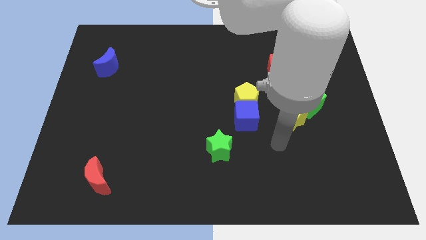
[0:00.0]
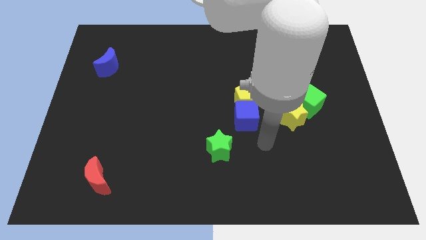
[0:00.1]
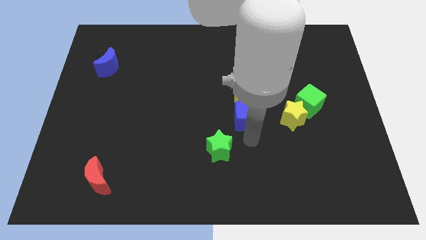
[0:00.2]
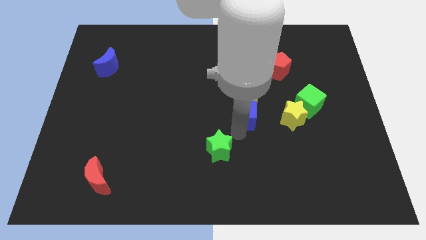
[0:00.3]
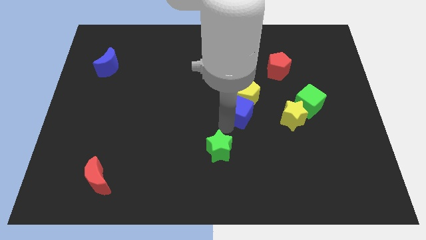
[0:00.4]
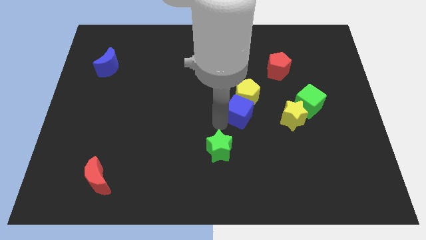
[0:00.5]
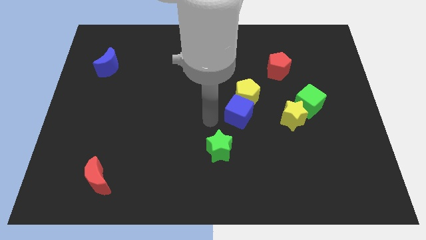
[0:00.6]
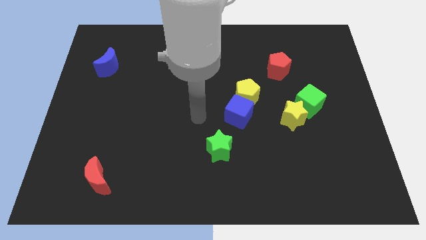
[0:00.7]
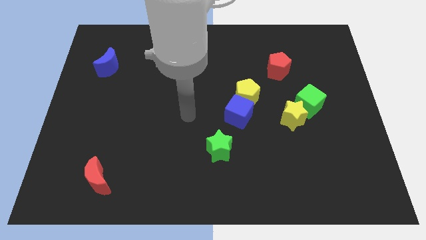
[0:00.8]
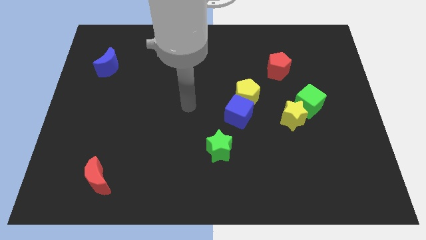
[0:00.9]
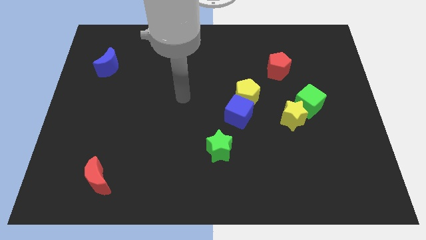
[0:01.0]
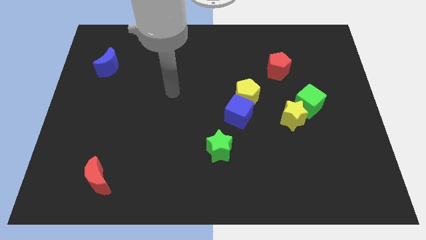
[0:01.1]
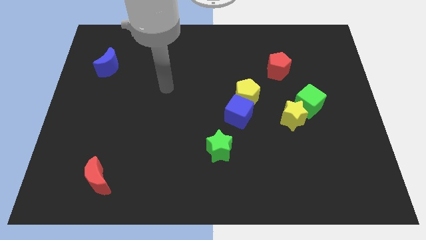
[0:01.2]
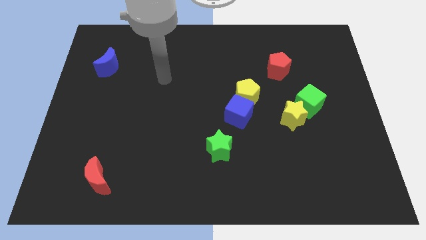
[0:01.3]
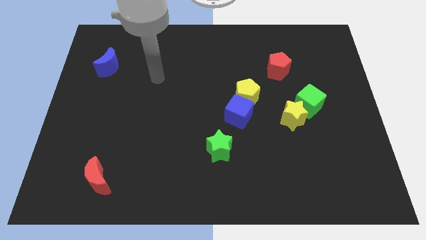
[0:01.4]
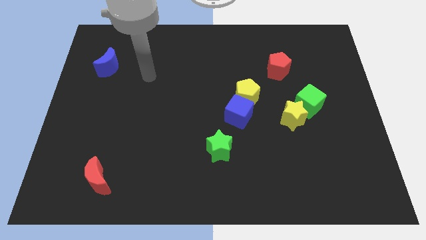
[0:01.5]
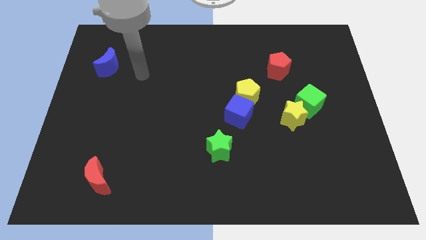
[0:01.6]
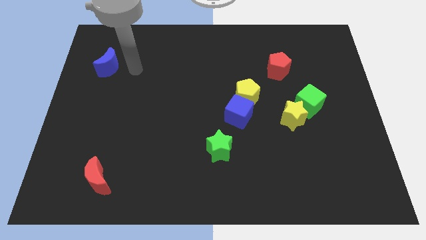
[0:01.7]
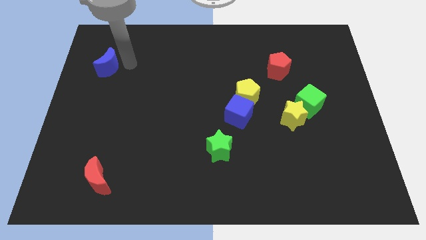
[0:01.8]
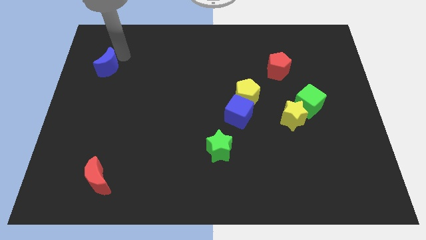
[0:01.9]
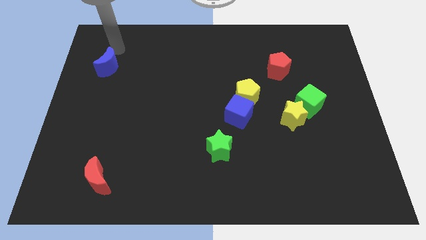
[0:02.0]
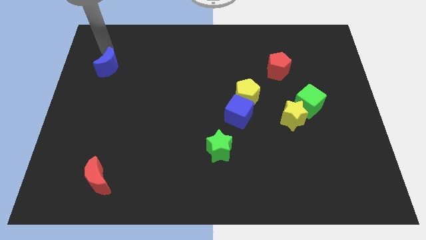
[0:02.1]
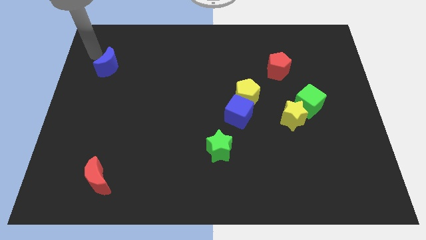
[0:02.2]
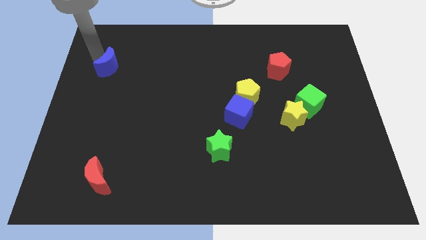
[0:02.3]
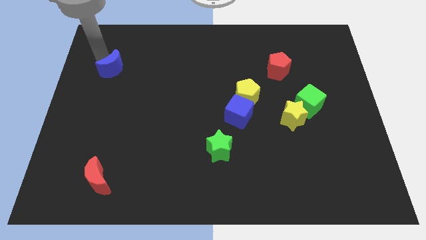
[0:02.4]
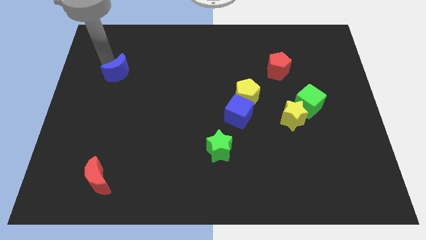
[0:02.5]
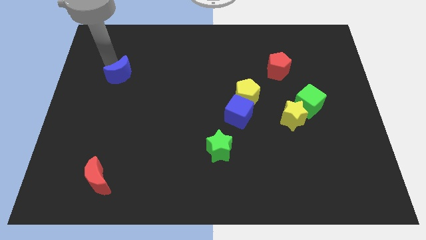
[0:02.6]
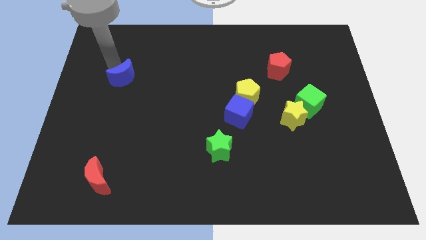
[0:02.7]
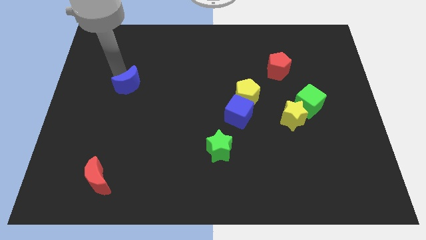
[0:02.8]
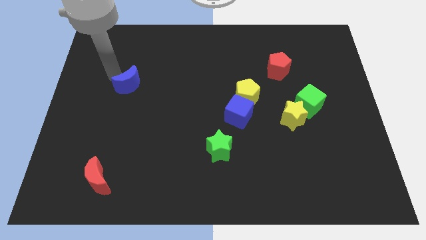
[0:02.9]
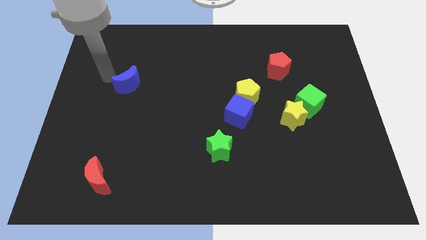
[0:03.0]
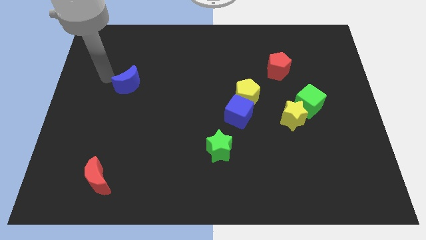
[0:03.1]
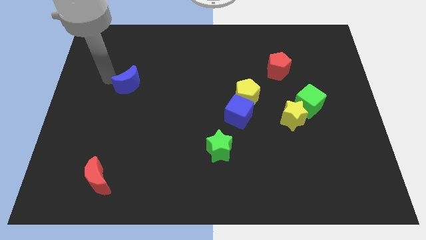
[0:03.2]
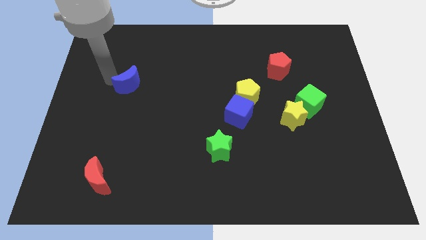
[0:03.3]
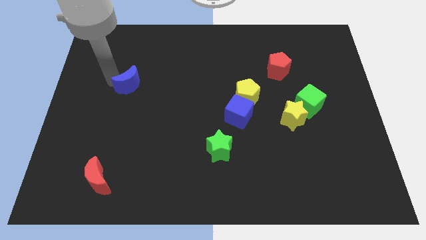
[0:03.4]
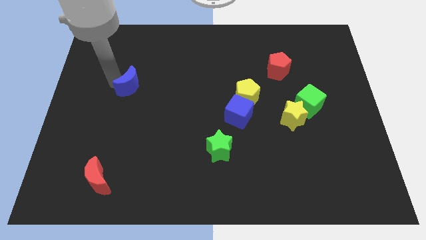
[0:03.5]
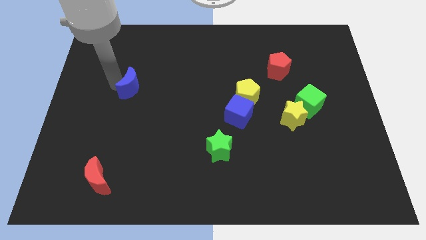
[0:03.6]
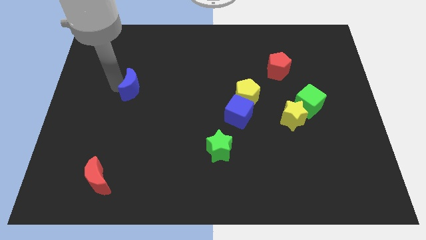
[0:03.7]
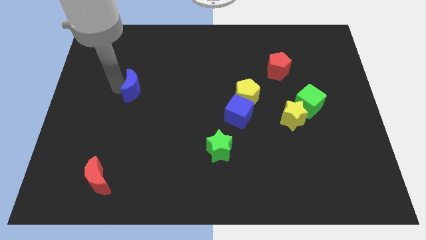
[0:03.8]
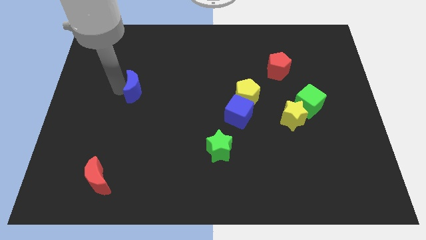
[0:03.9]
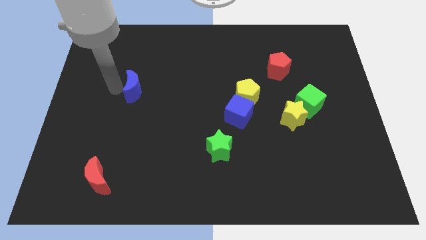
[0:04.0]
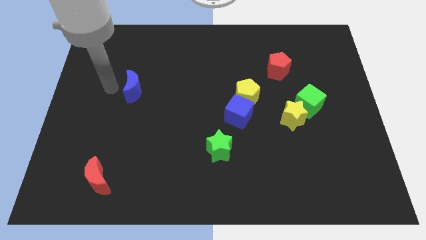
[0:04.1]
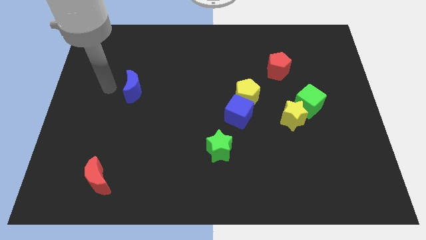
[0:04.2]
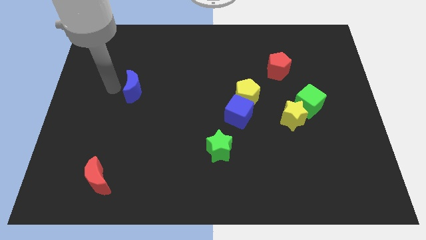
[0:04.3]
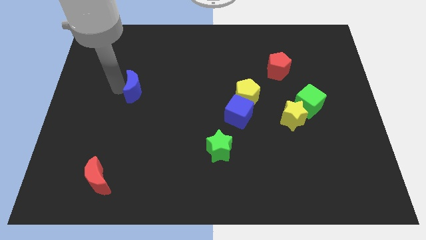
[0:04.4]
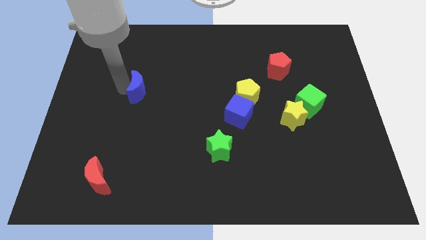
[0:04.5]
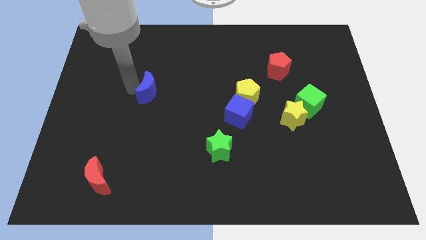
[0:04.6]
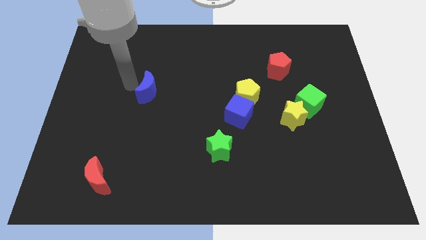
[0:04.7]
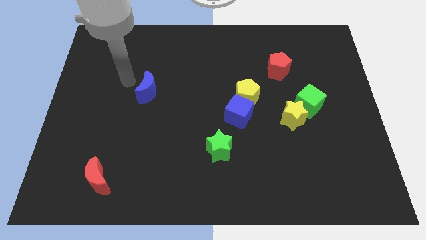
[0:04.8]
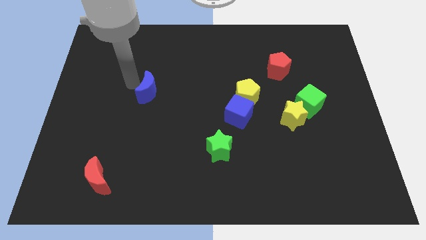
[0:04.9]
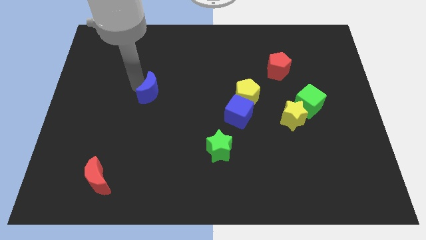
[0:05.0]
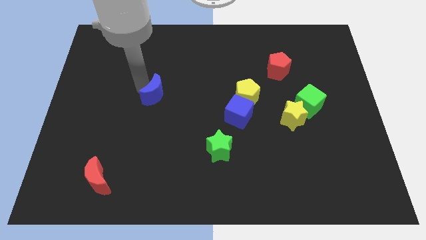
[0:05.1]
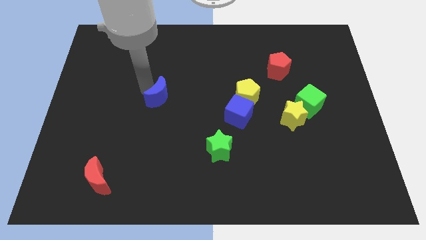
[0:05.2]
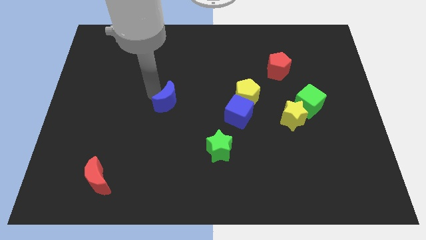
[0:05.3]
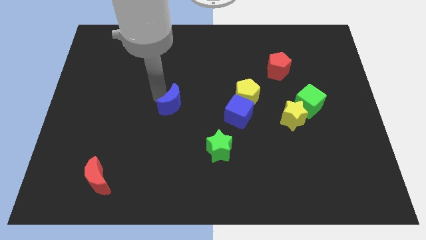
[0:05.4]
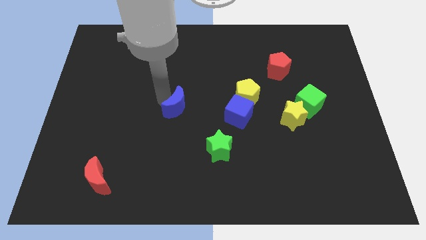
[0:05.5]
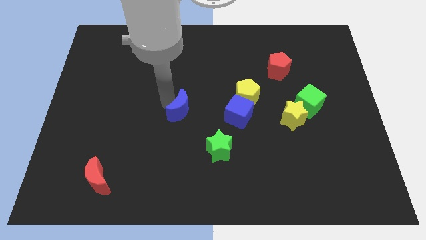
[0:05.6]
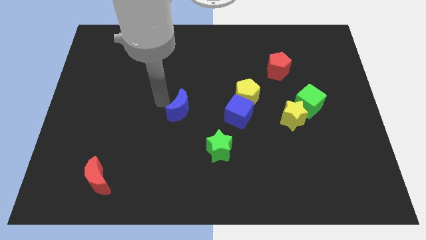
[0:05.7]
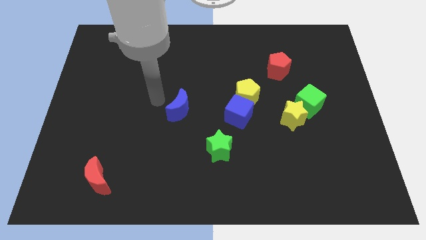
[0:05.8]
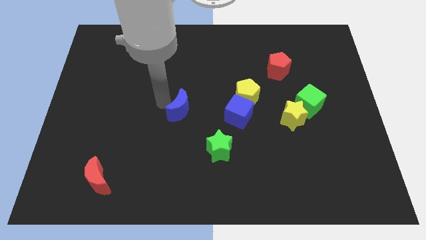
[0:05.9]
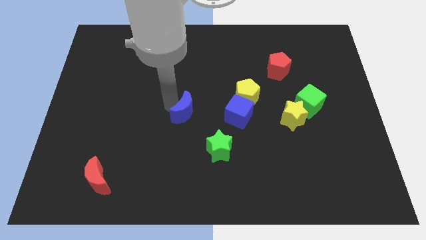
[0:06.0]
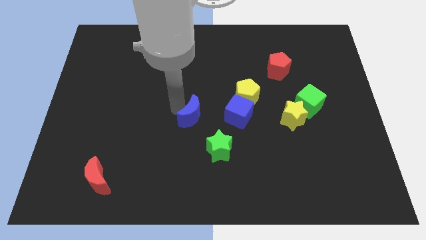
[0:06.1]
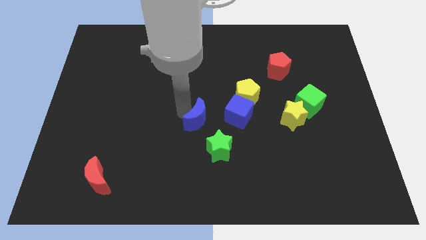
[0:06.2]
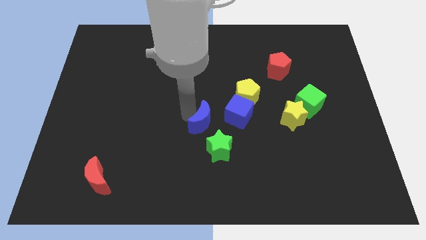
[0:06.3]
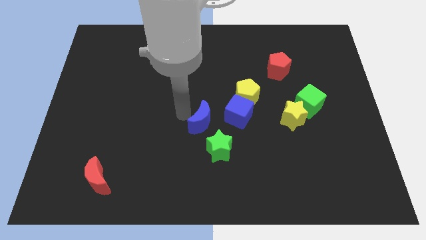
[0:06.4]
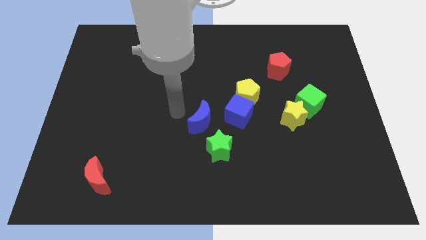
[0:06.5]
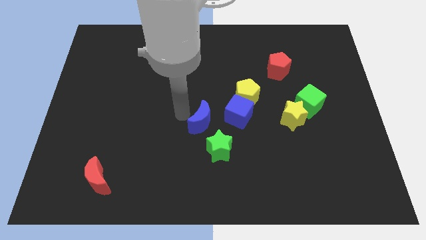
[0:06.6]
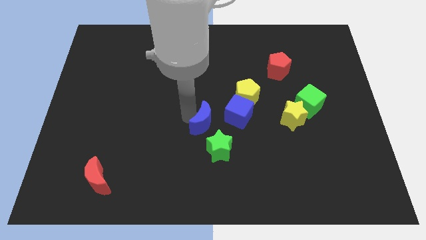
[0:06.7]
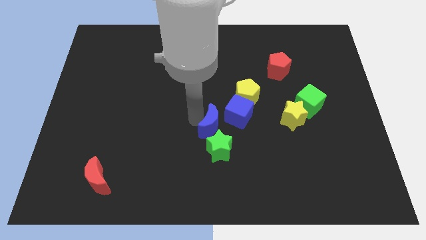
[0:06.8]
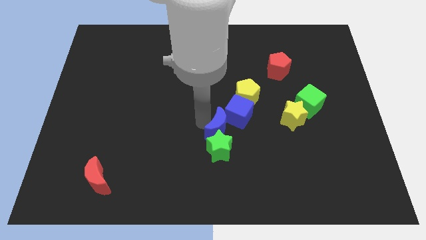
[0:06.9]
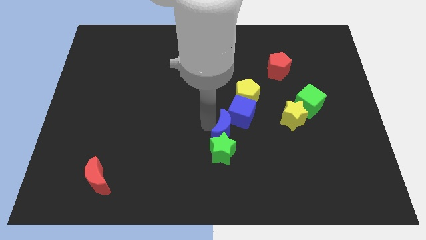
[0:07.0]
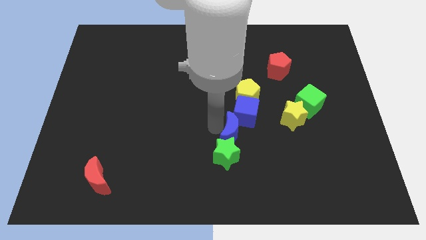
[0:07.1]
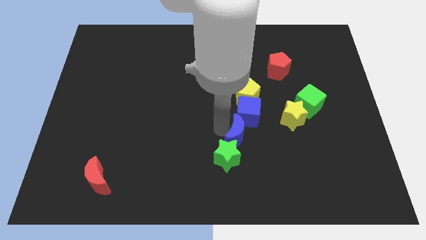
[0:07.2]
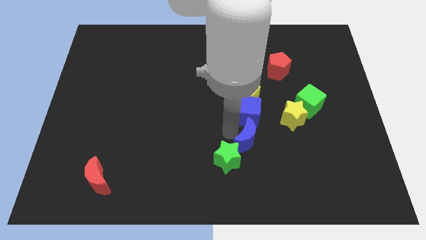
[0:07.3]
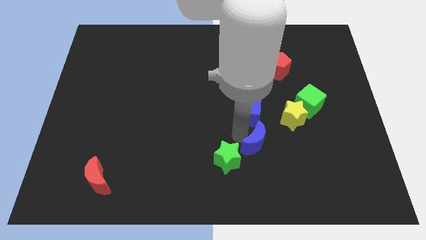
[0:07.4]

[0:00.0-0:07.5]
push the blue moon just right of the green star
